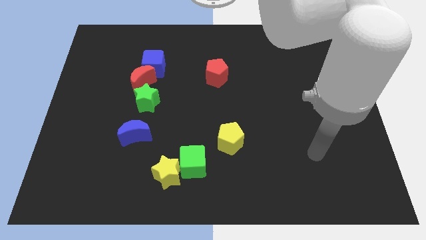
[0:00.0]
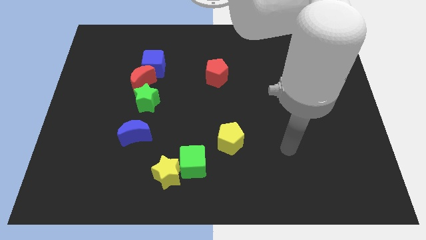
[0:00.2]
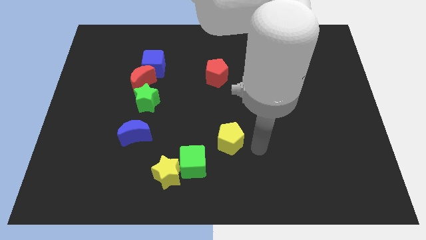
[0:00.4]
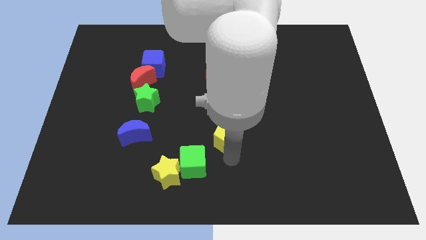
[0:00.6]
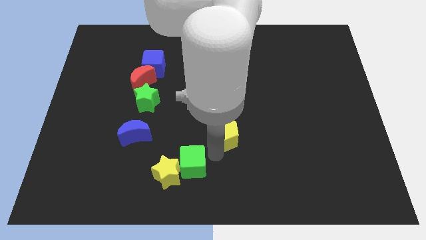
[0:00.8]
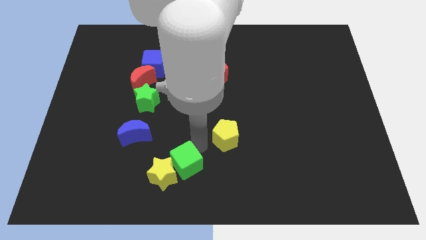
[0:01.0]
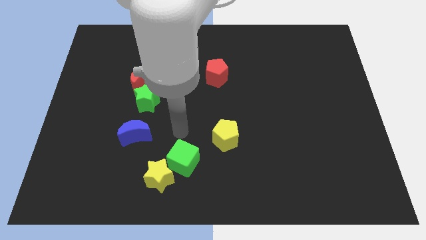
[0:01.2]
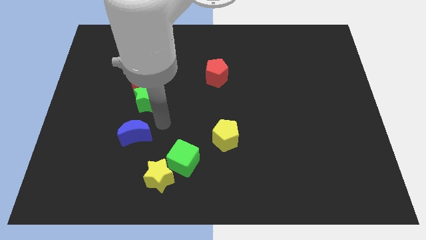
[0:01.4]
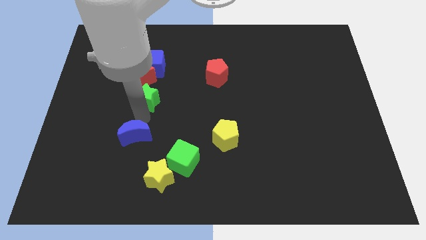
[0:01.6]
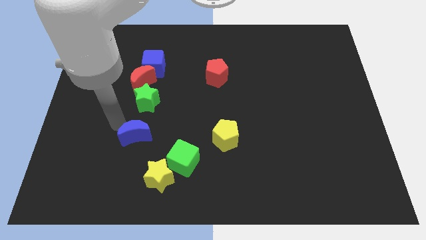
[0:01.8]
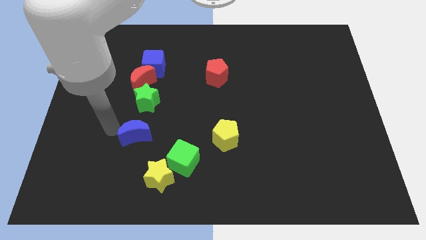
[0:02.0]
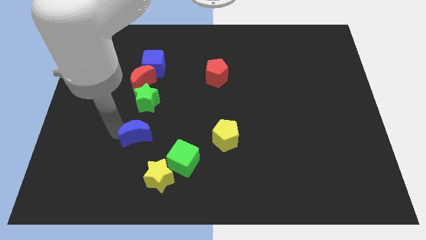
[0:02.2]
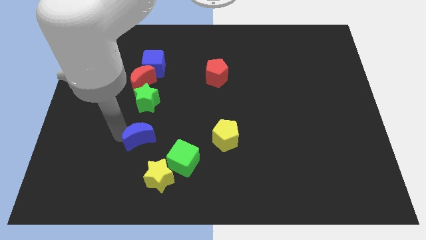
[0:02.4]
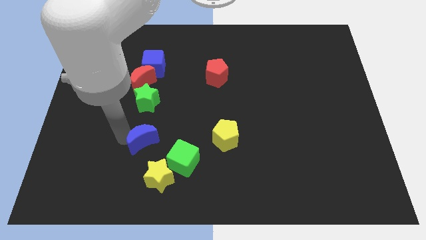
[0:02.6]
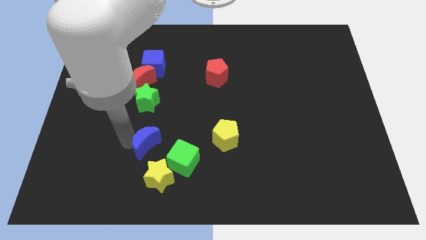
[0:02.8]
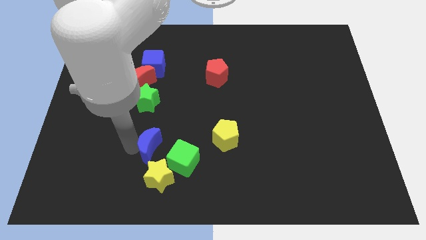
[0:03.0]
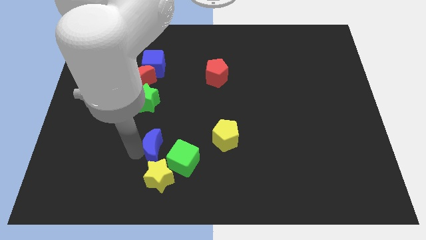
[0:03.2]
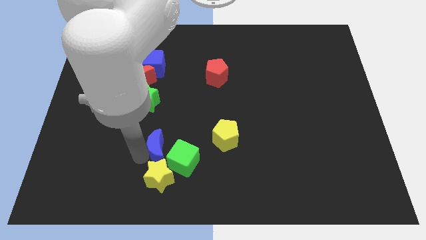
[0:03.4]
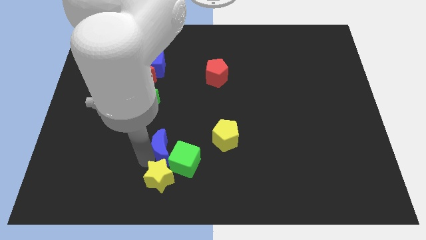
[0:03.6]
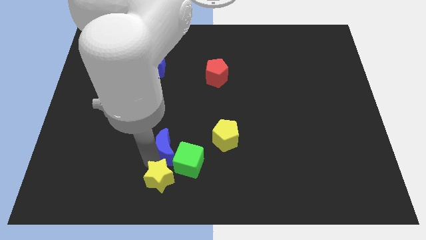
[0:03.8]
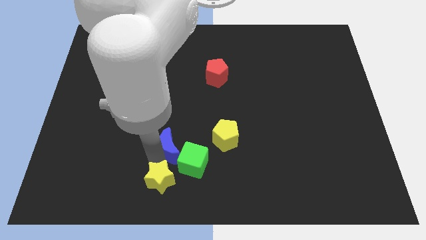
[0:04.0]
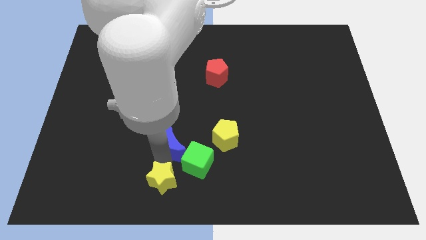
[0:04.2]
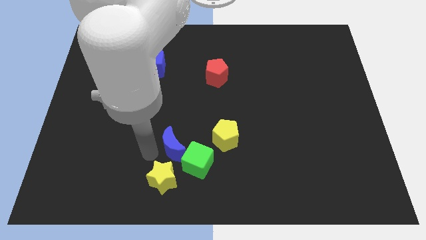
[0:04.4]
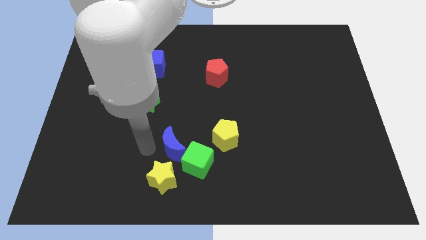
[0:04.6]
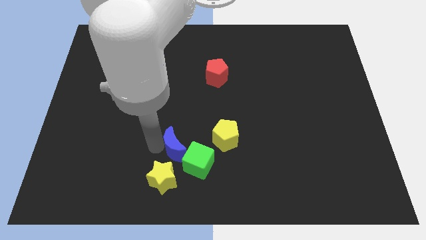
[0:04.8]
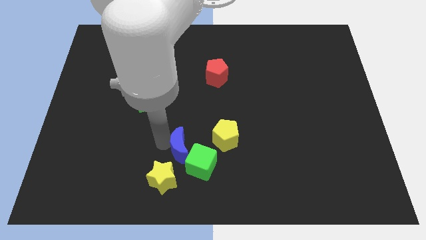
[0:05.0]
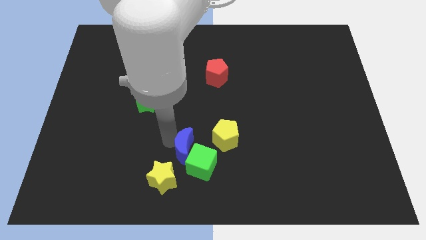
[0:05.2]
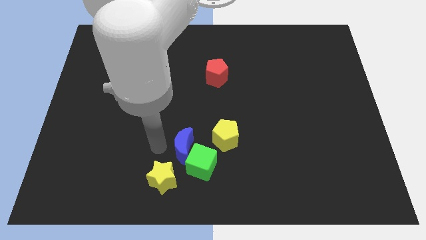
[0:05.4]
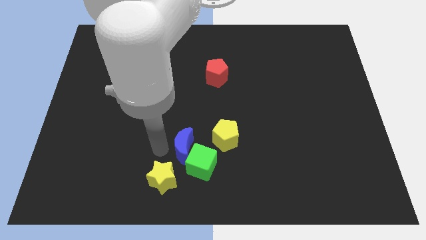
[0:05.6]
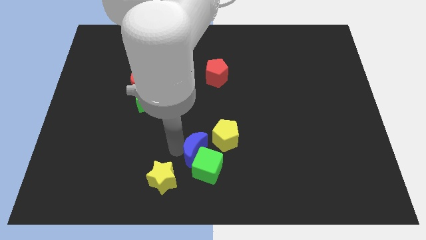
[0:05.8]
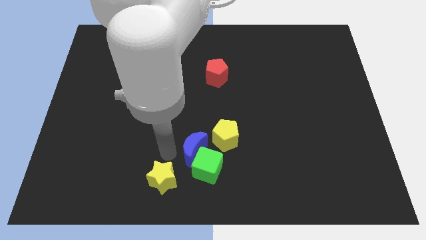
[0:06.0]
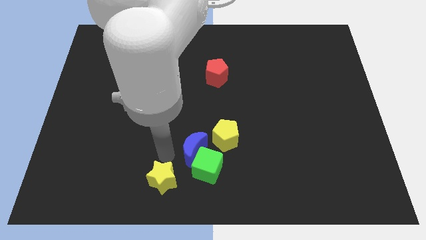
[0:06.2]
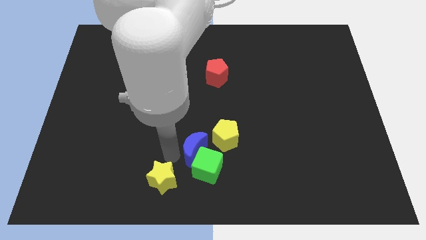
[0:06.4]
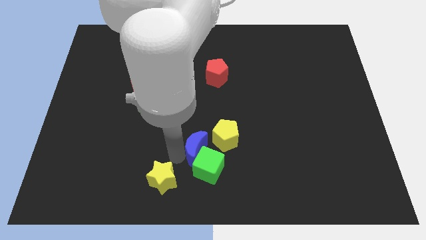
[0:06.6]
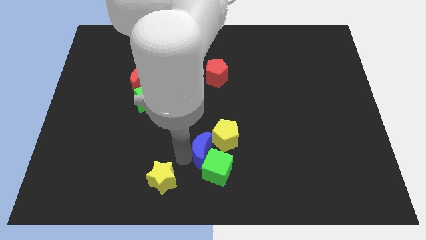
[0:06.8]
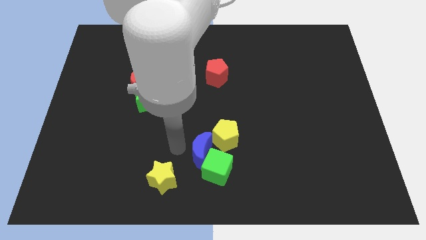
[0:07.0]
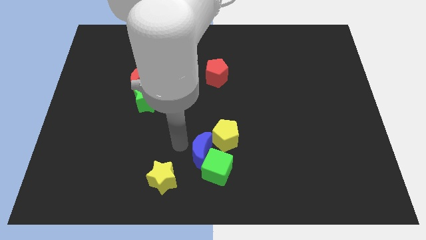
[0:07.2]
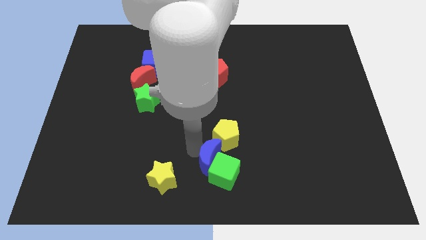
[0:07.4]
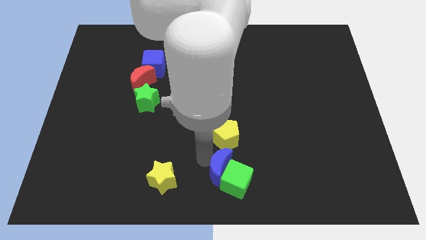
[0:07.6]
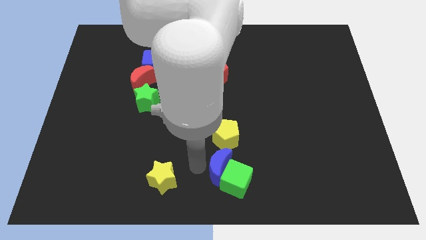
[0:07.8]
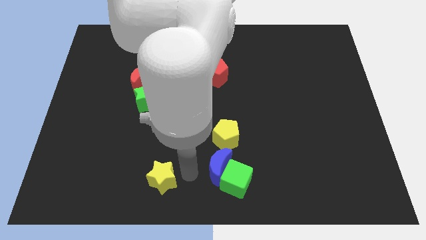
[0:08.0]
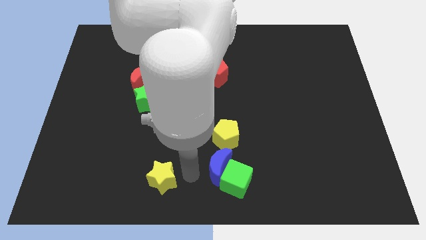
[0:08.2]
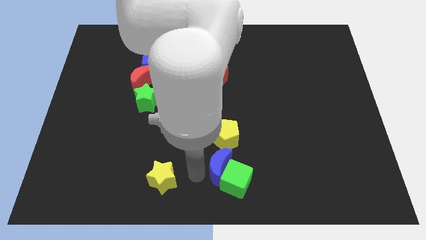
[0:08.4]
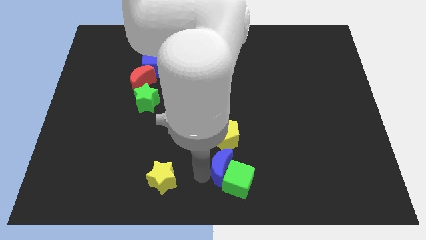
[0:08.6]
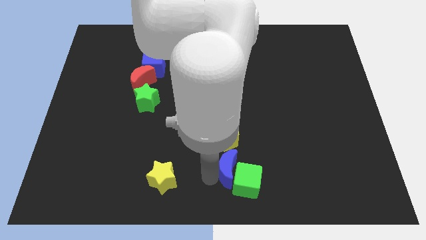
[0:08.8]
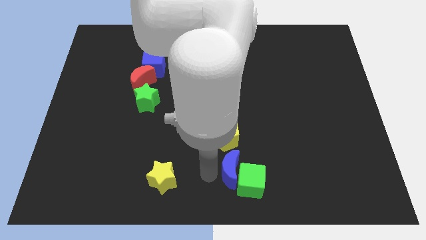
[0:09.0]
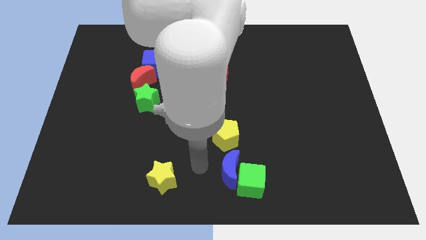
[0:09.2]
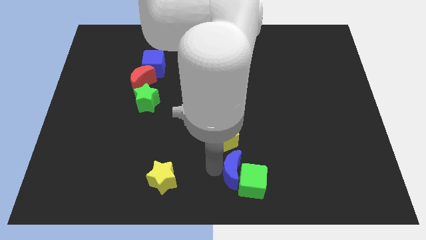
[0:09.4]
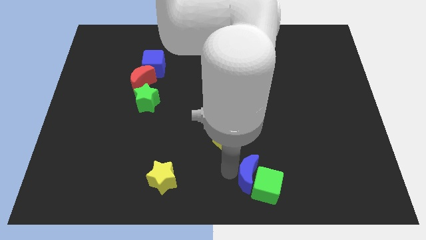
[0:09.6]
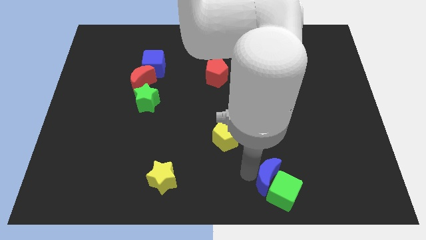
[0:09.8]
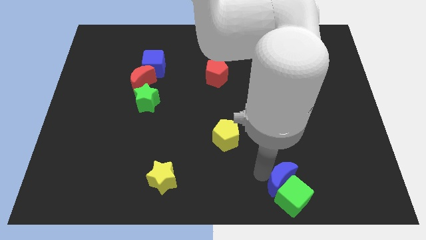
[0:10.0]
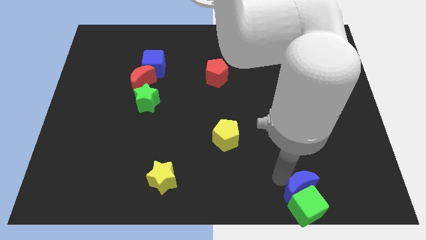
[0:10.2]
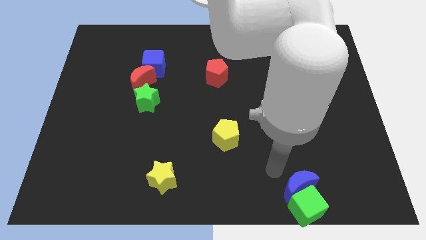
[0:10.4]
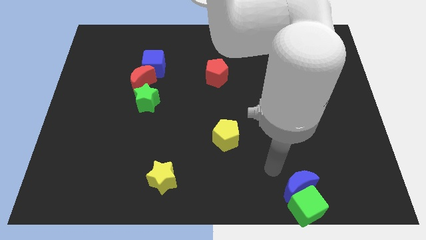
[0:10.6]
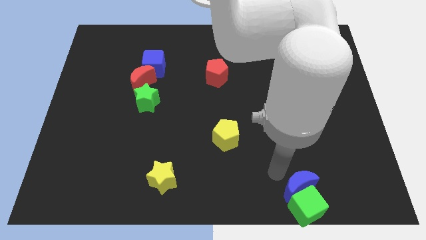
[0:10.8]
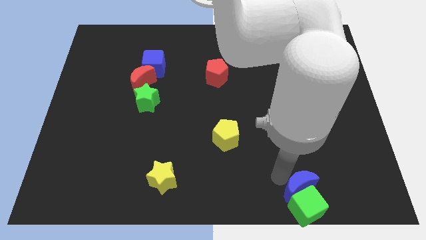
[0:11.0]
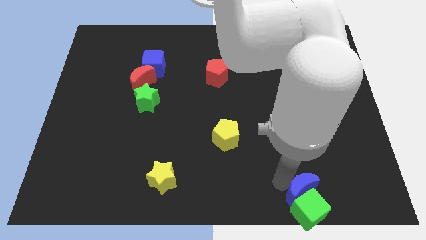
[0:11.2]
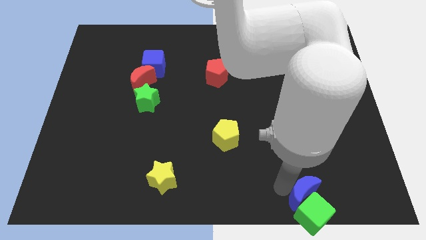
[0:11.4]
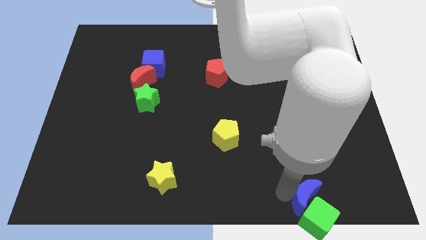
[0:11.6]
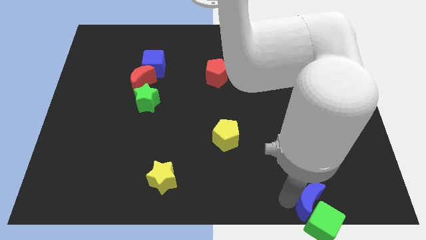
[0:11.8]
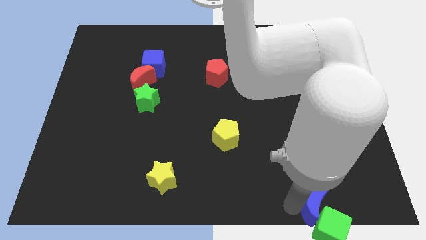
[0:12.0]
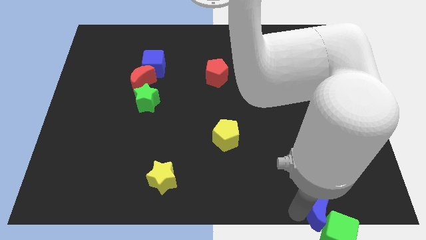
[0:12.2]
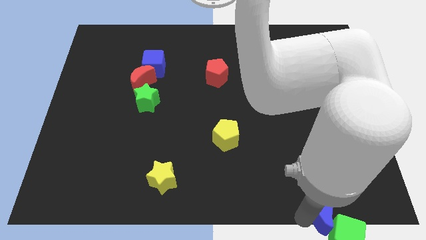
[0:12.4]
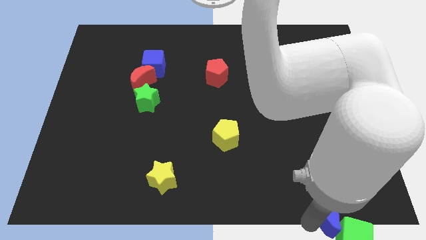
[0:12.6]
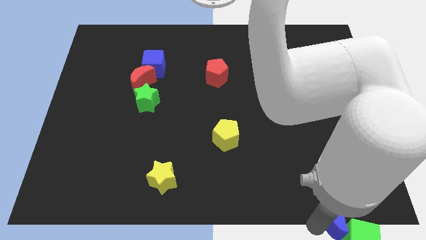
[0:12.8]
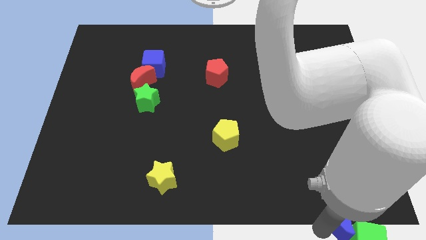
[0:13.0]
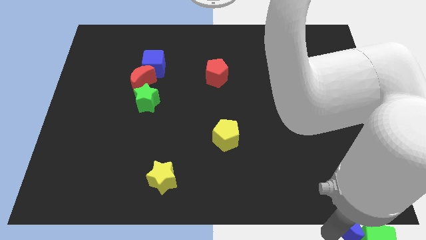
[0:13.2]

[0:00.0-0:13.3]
move the blue moon to the bottom right of the board
